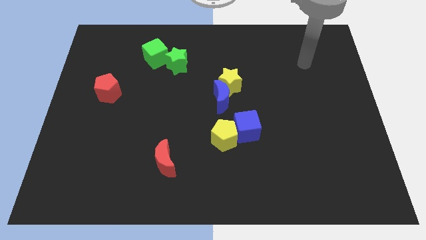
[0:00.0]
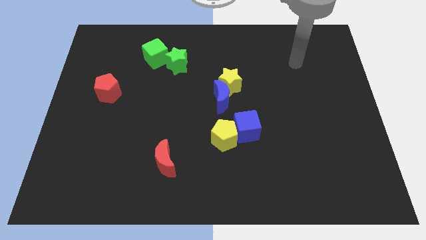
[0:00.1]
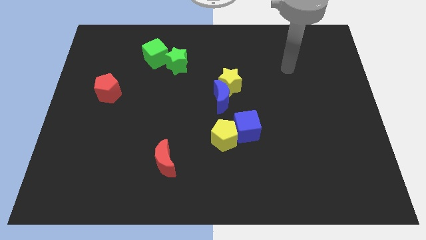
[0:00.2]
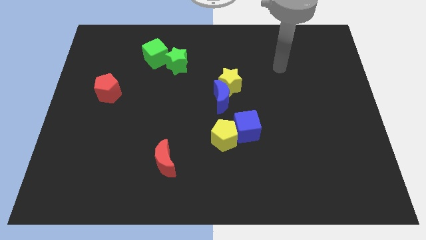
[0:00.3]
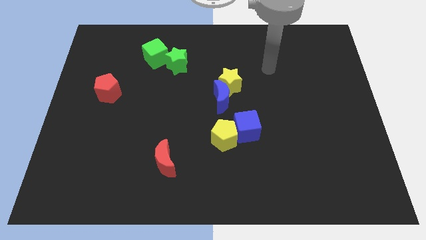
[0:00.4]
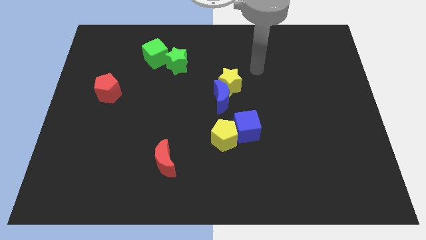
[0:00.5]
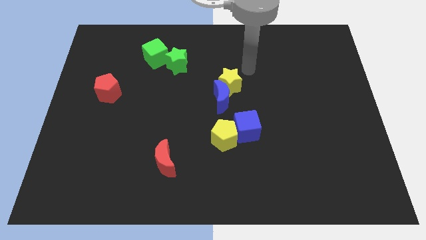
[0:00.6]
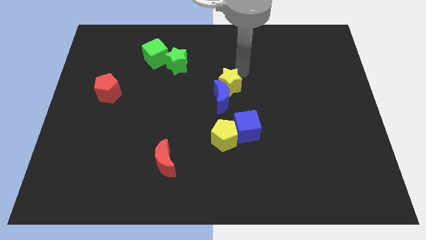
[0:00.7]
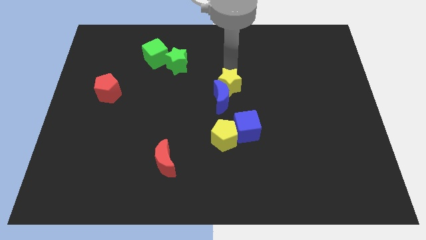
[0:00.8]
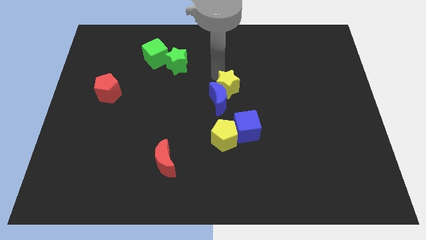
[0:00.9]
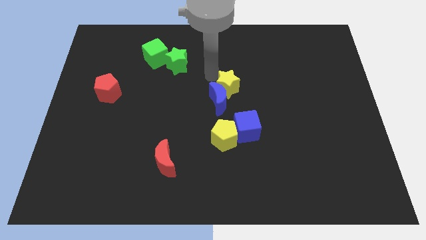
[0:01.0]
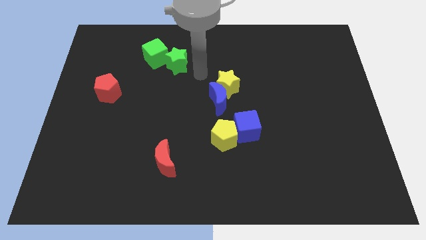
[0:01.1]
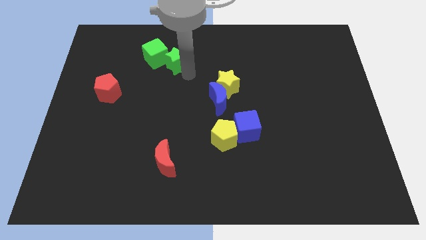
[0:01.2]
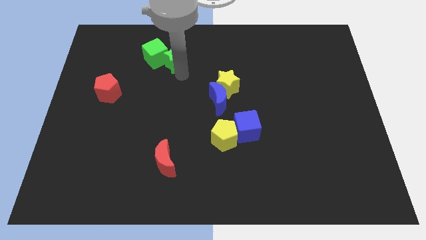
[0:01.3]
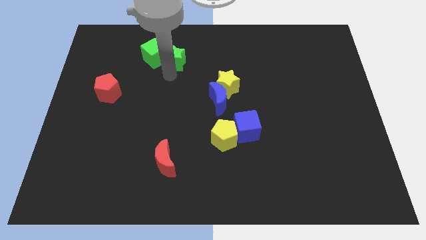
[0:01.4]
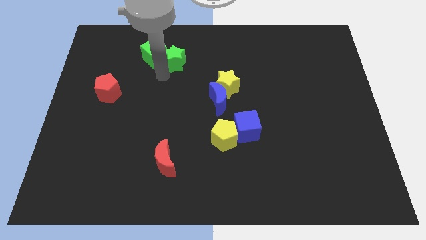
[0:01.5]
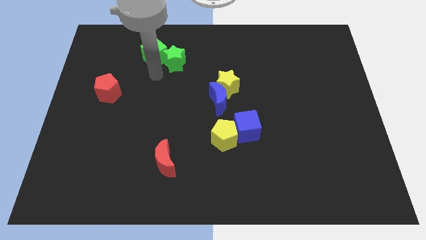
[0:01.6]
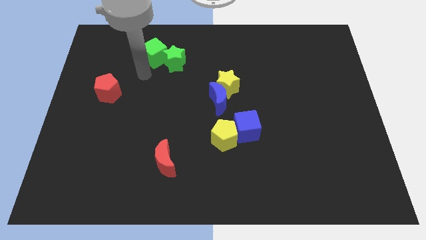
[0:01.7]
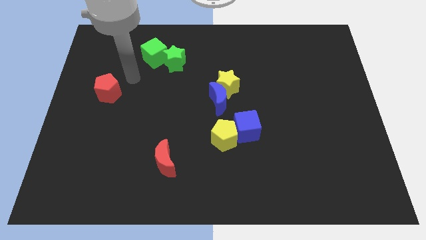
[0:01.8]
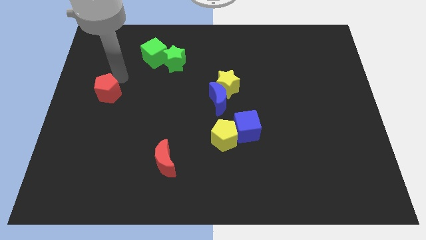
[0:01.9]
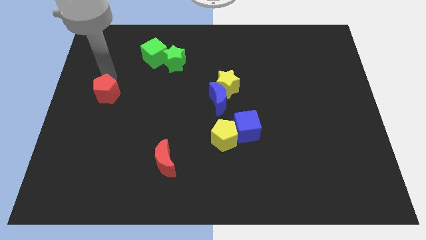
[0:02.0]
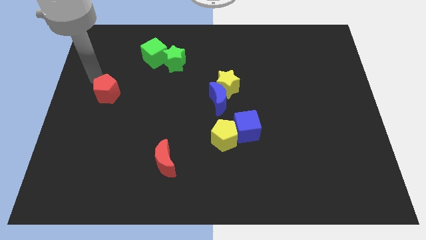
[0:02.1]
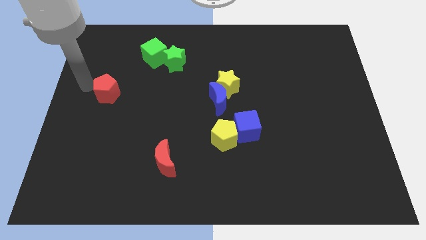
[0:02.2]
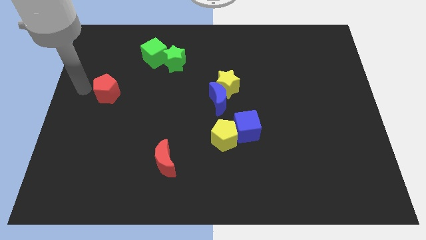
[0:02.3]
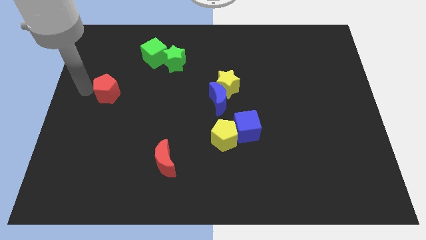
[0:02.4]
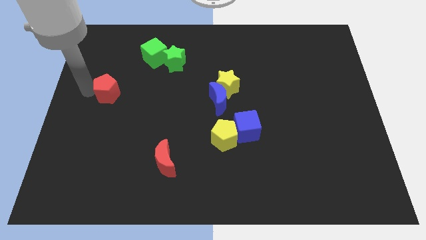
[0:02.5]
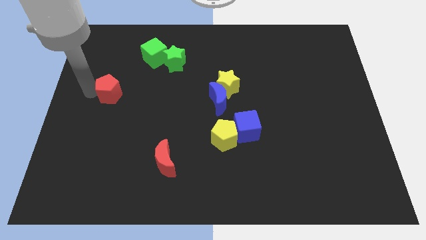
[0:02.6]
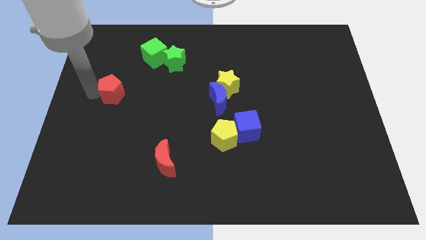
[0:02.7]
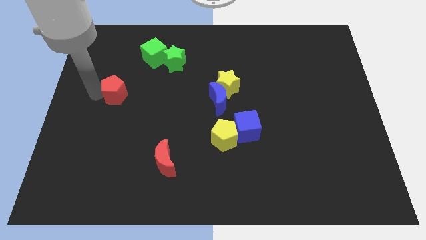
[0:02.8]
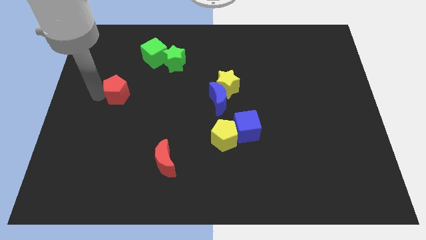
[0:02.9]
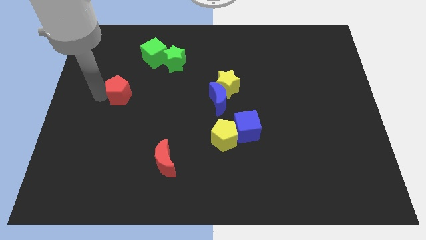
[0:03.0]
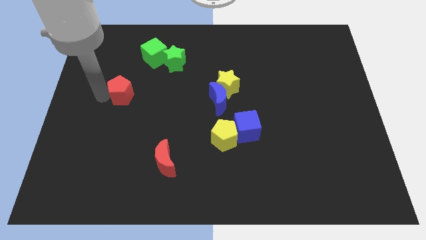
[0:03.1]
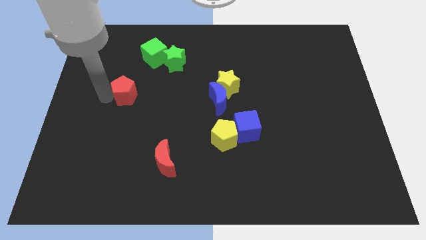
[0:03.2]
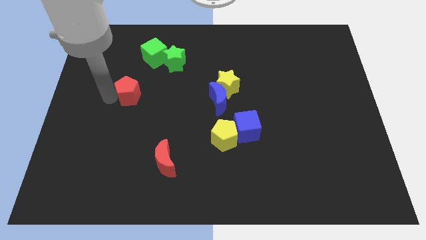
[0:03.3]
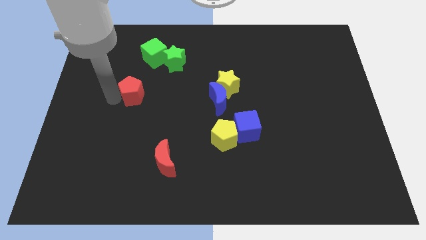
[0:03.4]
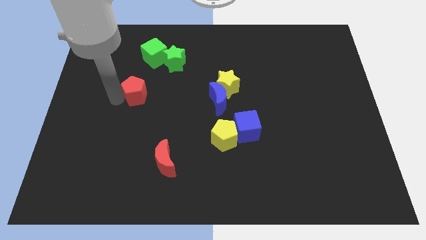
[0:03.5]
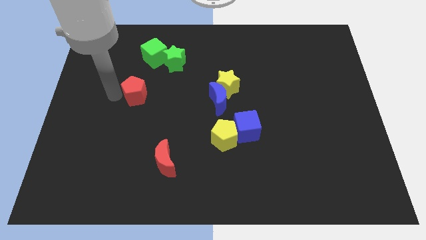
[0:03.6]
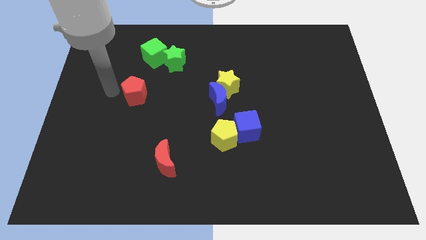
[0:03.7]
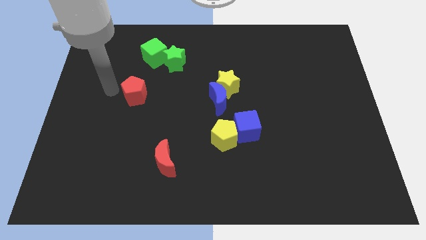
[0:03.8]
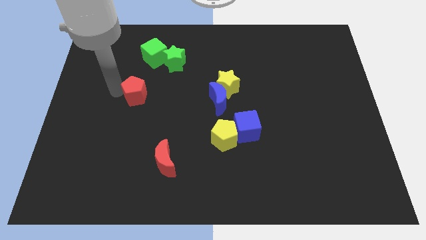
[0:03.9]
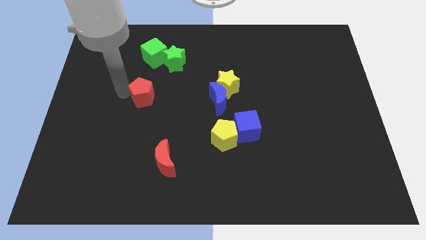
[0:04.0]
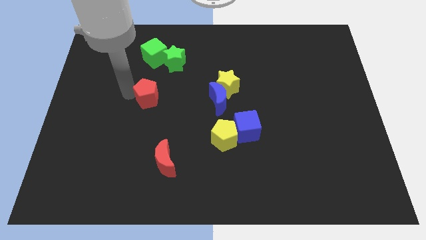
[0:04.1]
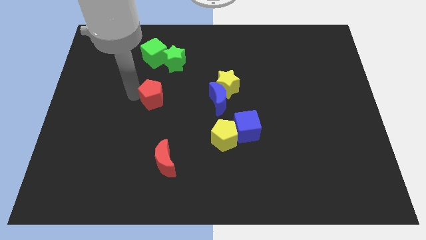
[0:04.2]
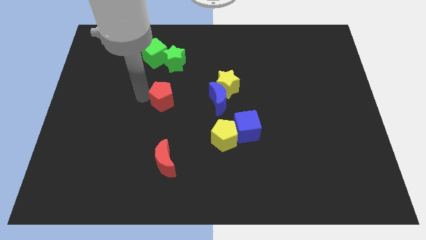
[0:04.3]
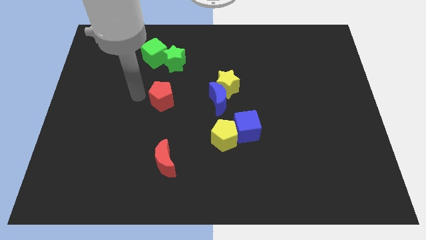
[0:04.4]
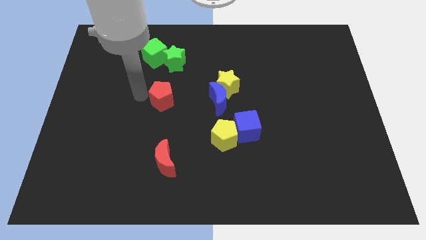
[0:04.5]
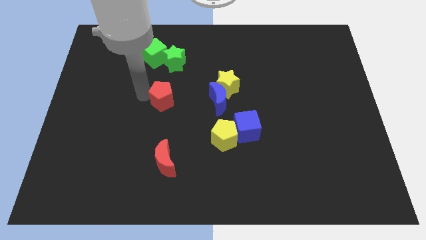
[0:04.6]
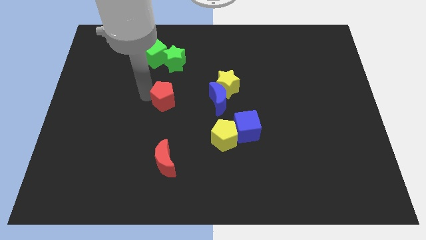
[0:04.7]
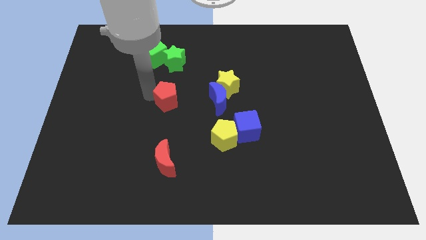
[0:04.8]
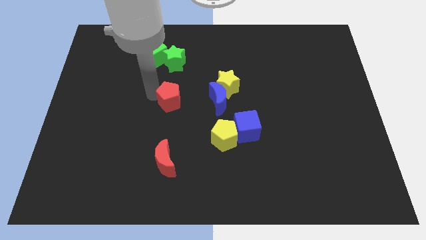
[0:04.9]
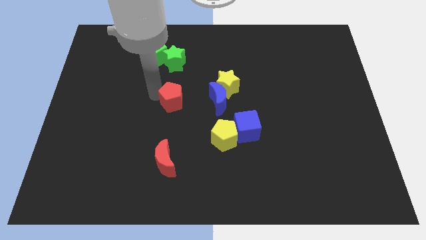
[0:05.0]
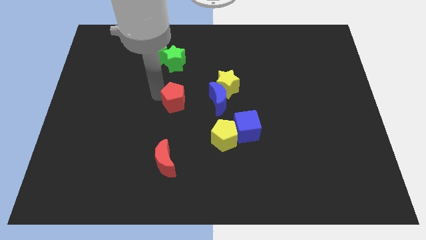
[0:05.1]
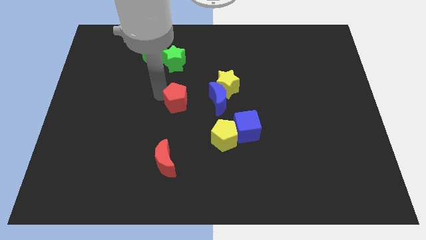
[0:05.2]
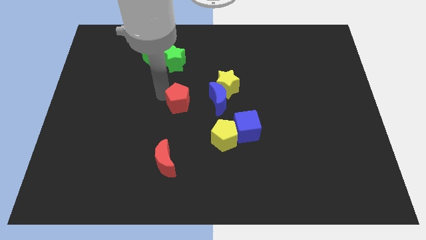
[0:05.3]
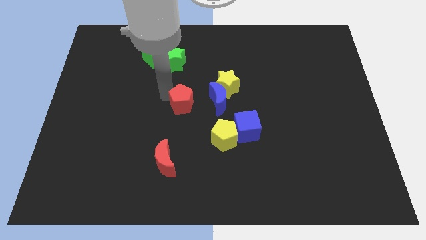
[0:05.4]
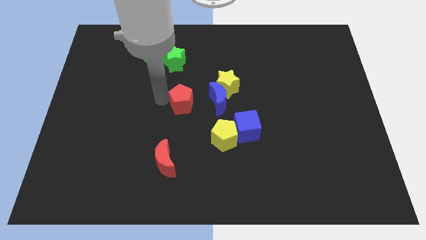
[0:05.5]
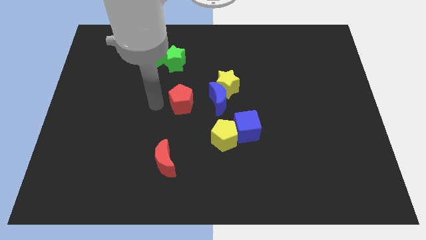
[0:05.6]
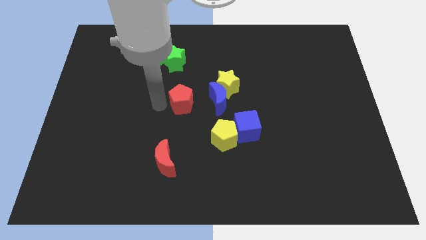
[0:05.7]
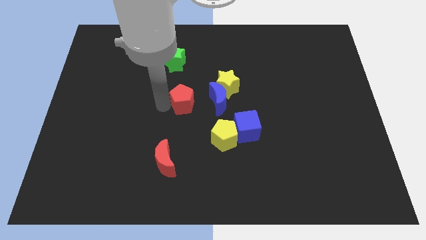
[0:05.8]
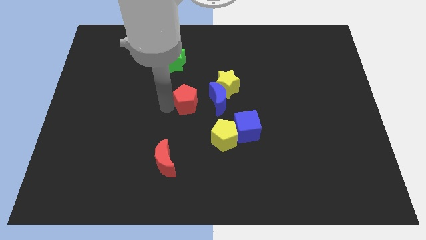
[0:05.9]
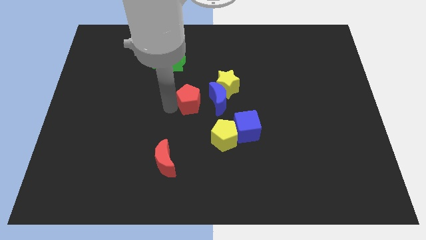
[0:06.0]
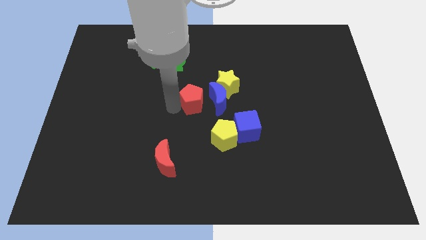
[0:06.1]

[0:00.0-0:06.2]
push the red pentagon next to the blue moon

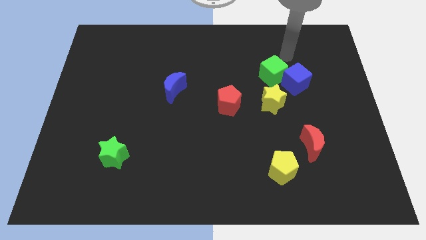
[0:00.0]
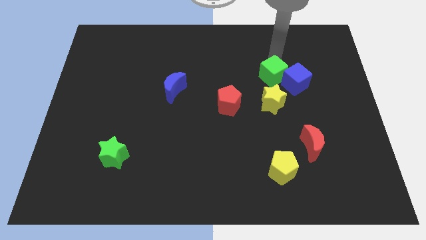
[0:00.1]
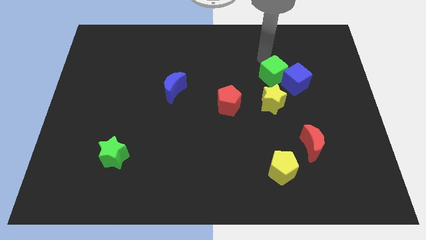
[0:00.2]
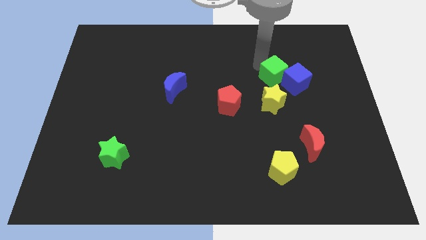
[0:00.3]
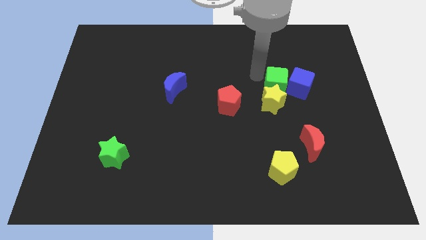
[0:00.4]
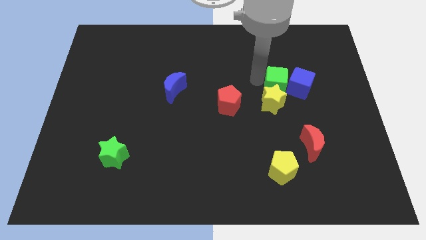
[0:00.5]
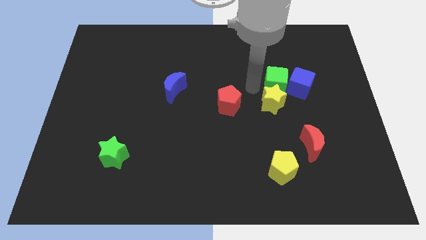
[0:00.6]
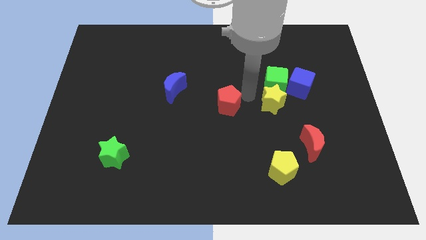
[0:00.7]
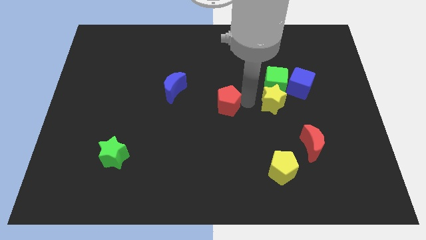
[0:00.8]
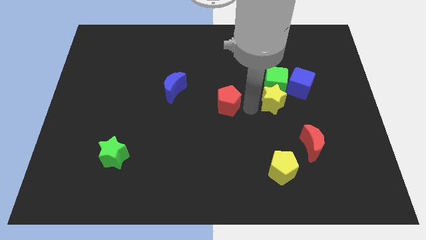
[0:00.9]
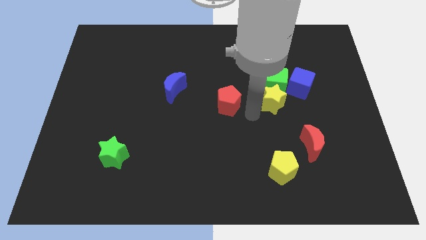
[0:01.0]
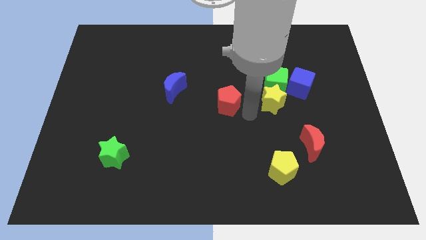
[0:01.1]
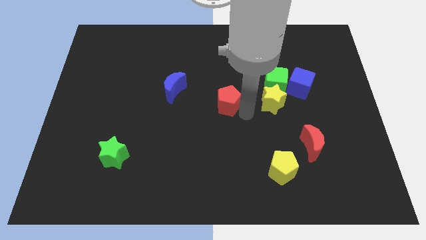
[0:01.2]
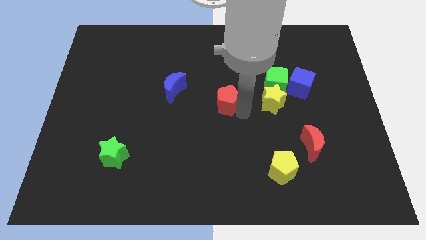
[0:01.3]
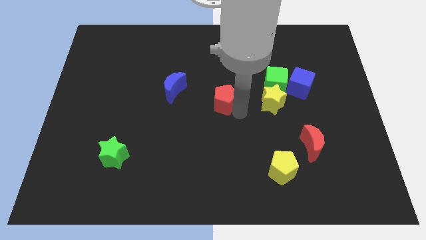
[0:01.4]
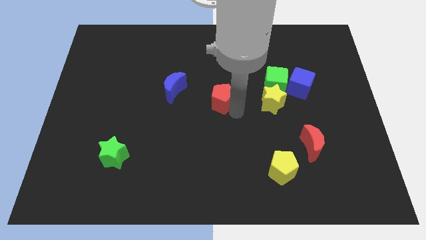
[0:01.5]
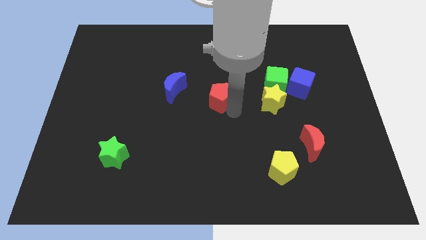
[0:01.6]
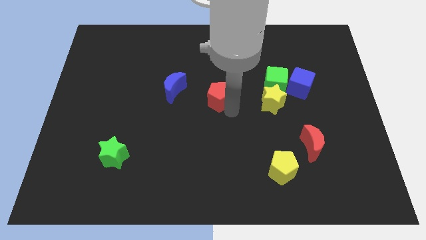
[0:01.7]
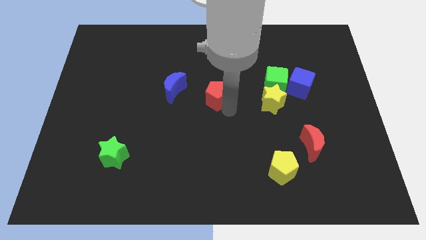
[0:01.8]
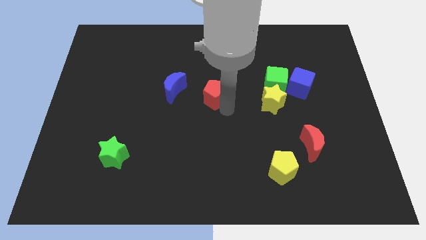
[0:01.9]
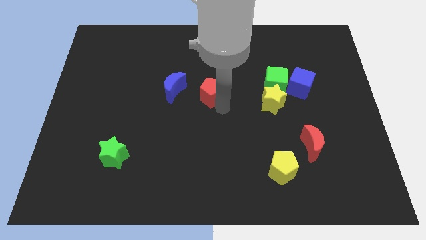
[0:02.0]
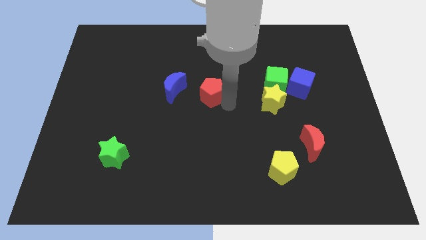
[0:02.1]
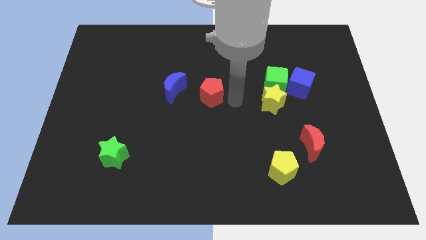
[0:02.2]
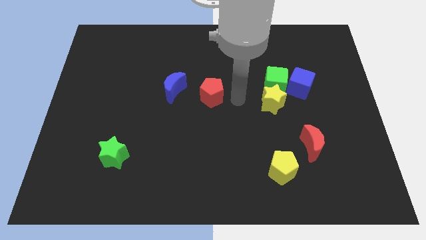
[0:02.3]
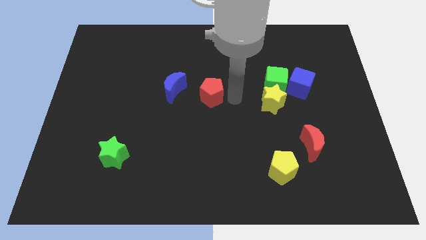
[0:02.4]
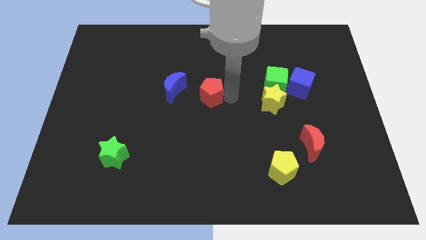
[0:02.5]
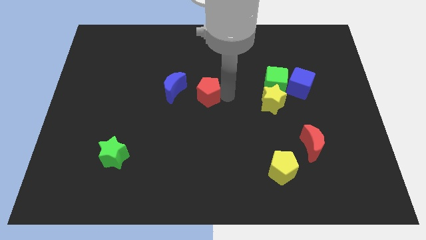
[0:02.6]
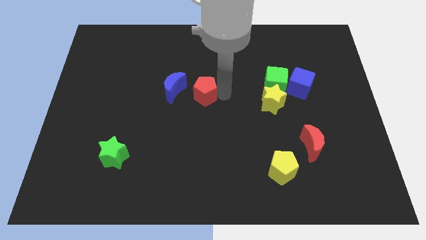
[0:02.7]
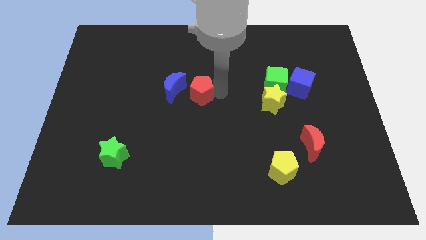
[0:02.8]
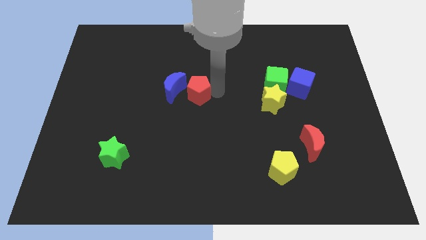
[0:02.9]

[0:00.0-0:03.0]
move the red pentagon next to the blue moon
